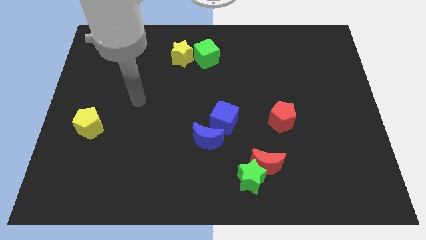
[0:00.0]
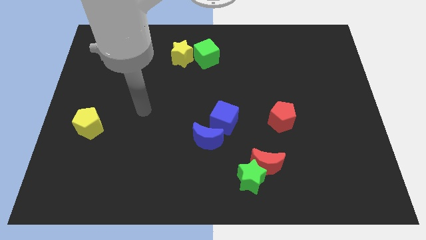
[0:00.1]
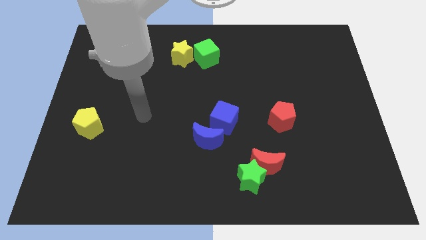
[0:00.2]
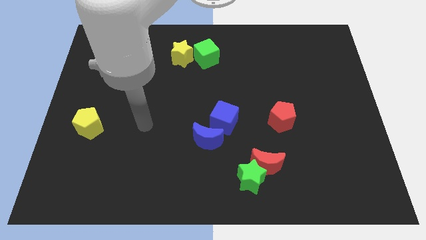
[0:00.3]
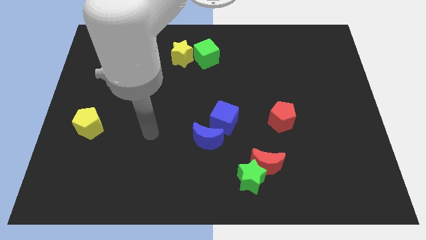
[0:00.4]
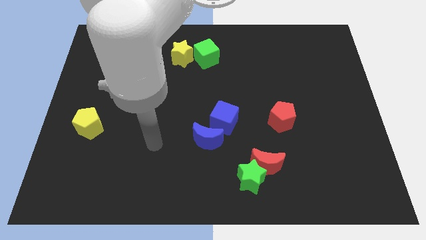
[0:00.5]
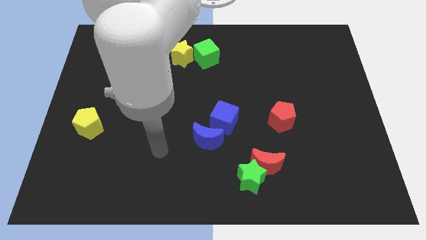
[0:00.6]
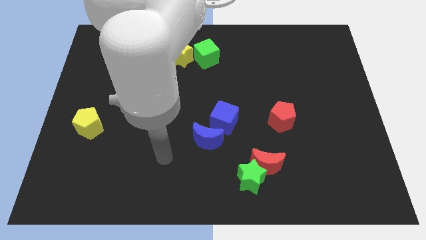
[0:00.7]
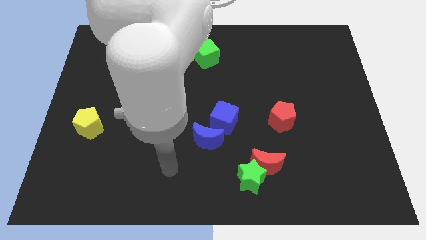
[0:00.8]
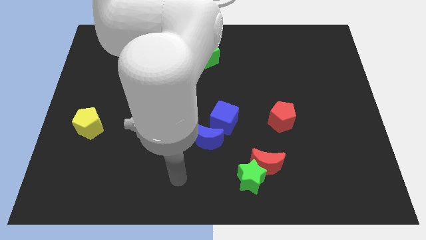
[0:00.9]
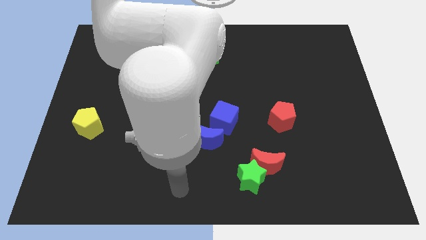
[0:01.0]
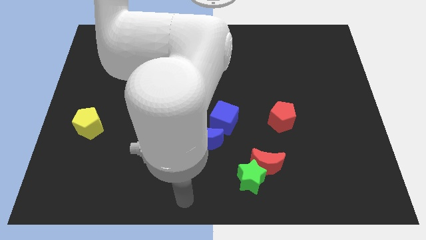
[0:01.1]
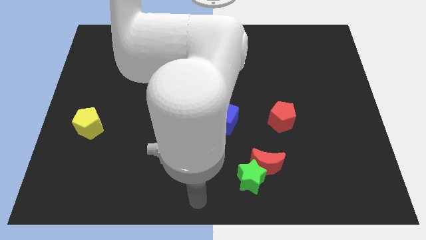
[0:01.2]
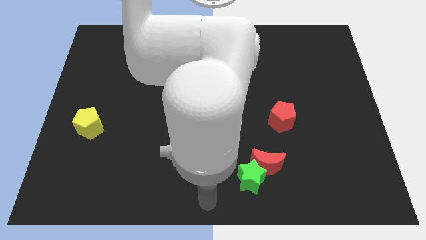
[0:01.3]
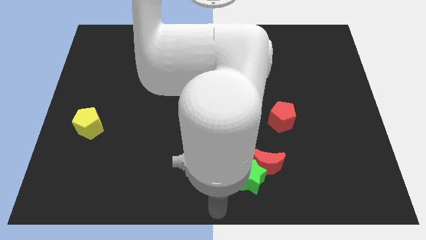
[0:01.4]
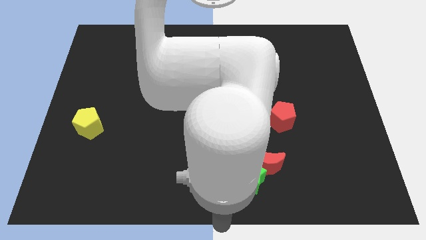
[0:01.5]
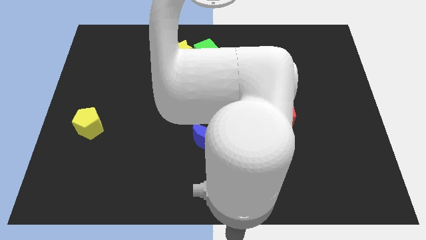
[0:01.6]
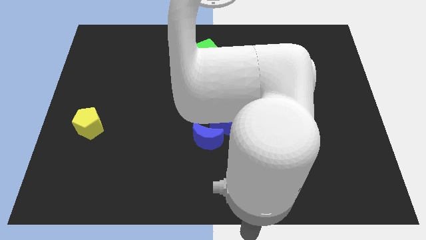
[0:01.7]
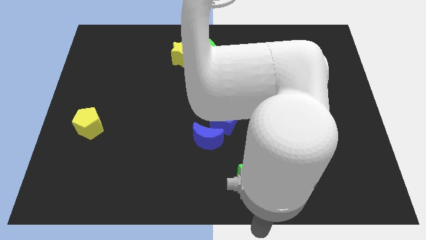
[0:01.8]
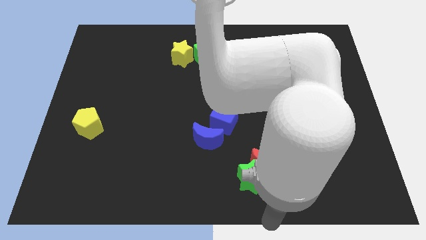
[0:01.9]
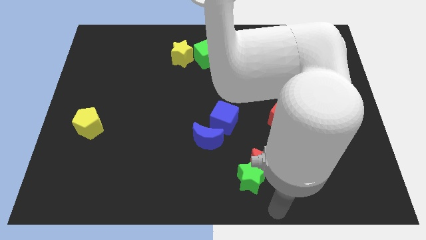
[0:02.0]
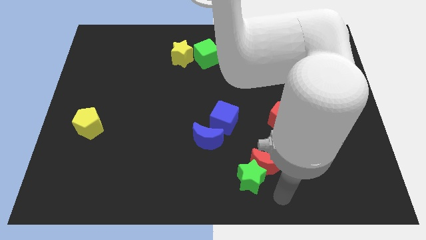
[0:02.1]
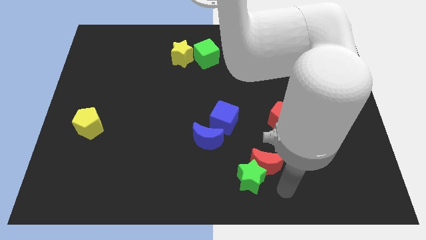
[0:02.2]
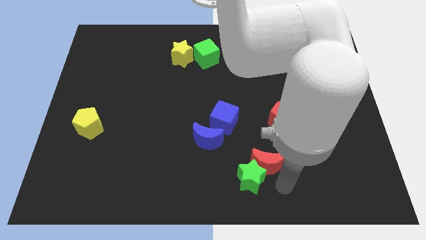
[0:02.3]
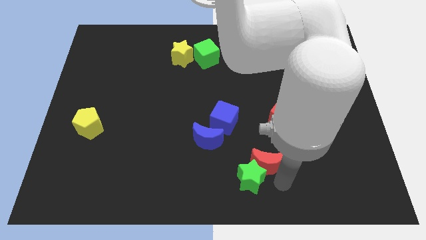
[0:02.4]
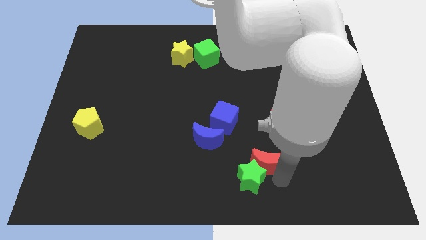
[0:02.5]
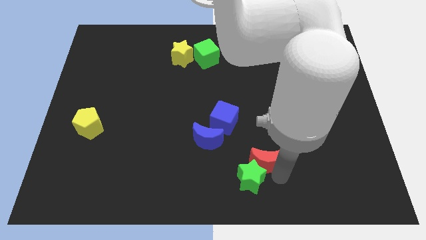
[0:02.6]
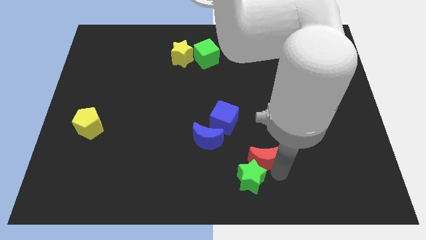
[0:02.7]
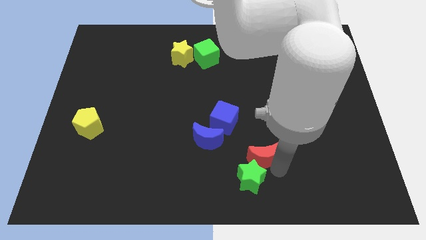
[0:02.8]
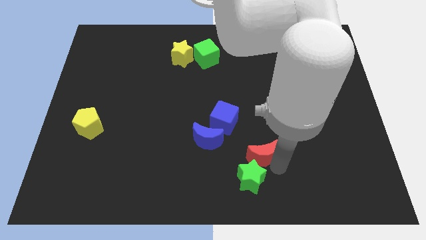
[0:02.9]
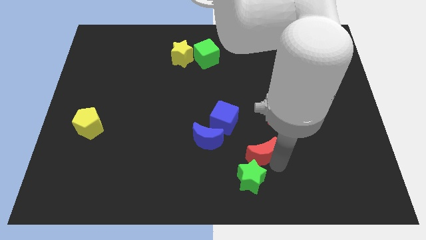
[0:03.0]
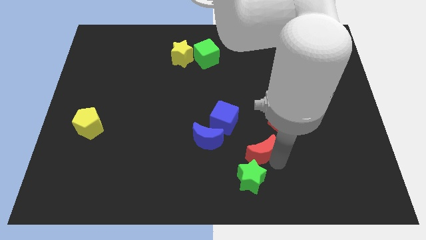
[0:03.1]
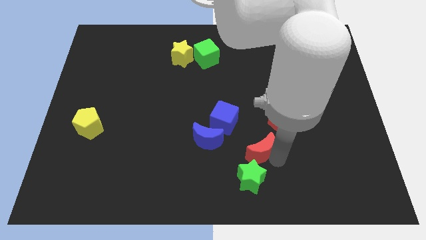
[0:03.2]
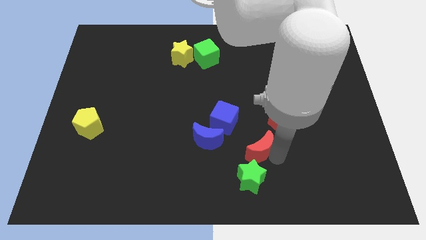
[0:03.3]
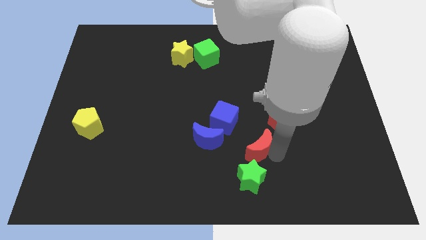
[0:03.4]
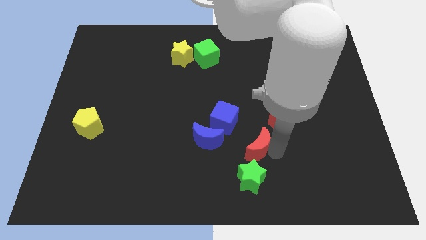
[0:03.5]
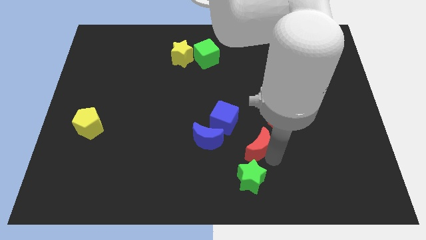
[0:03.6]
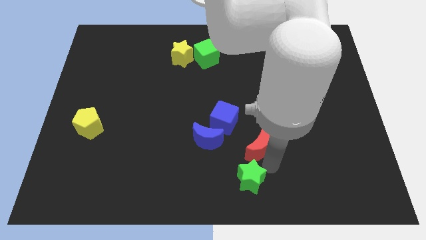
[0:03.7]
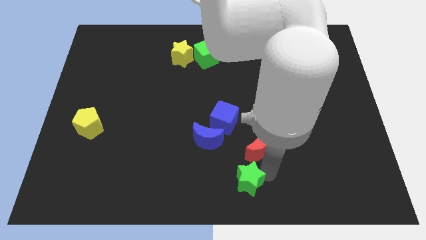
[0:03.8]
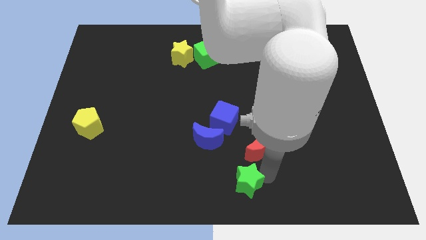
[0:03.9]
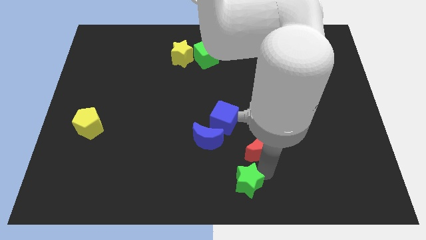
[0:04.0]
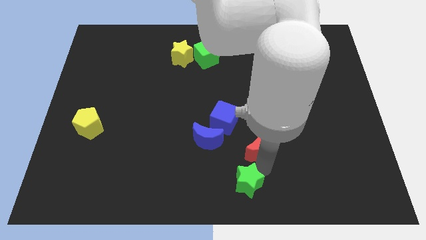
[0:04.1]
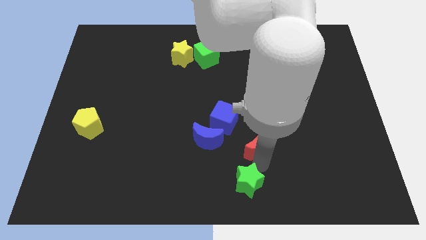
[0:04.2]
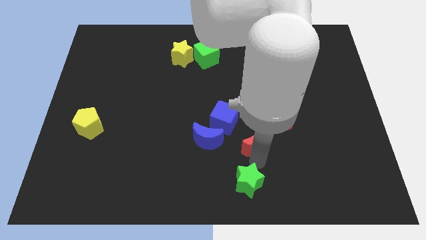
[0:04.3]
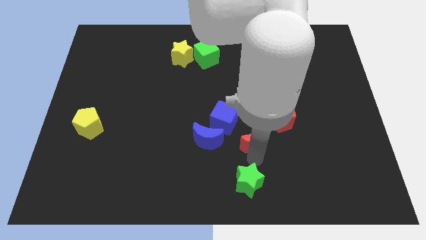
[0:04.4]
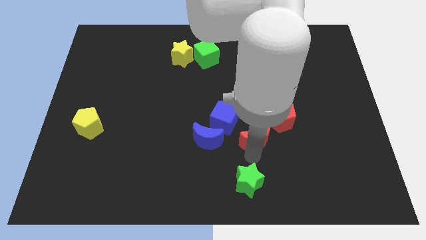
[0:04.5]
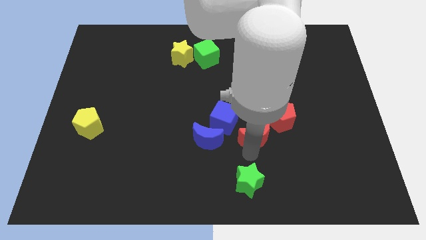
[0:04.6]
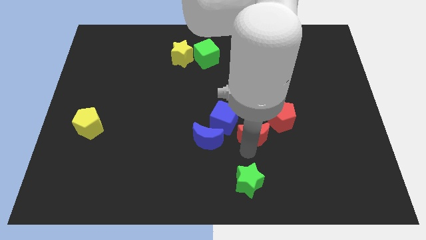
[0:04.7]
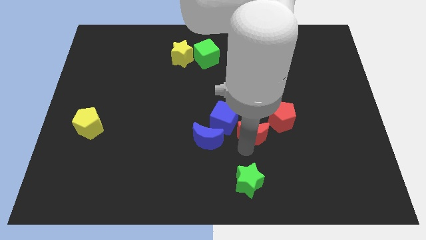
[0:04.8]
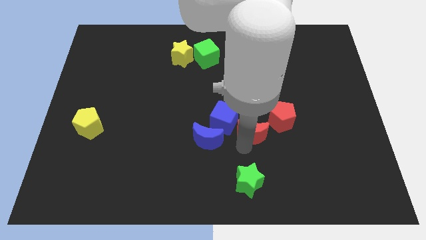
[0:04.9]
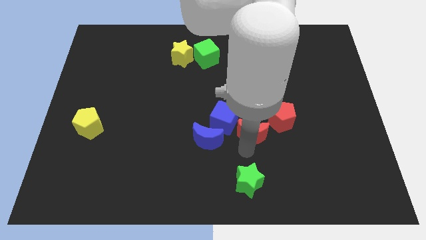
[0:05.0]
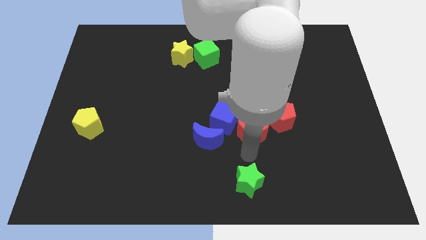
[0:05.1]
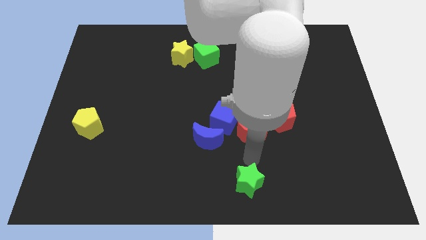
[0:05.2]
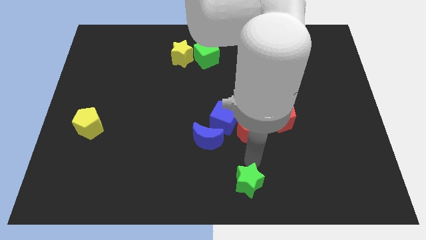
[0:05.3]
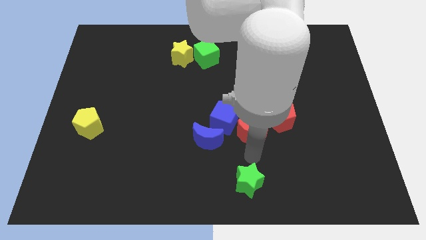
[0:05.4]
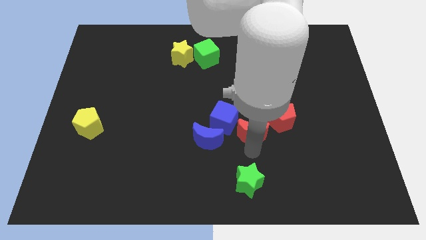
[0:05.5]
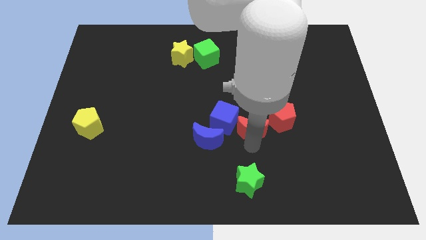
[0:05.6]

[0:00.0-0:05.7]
push the red moon to the center

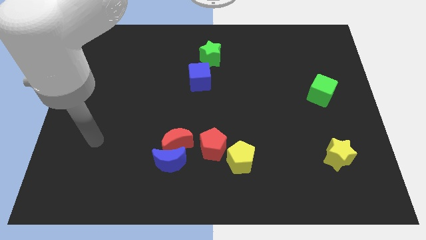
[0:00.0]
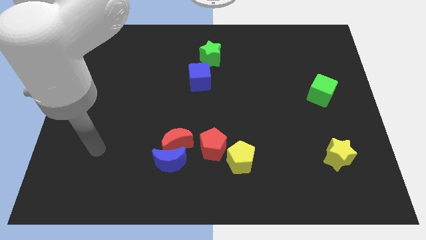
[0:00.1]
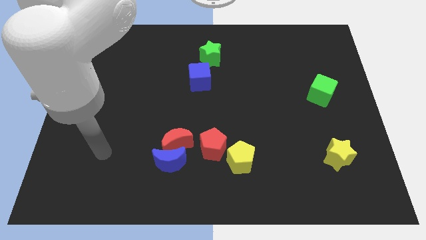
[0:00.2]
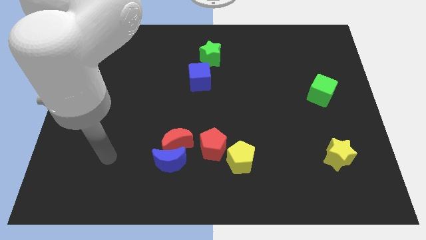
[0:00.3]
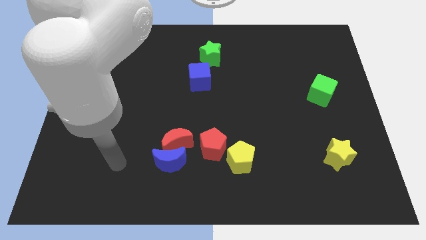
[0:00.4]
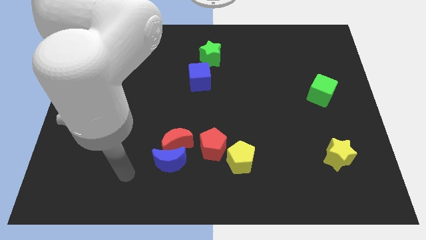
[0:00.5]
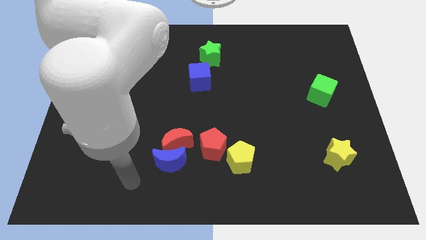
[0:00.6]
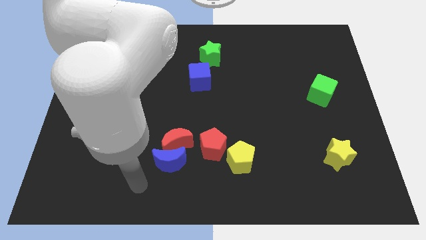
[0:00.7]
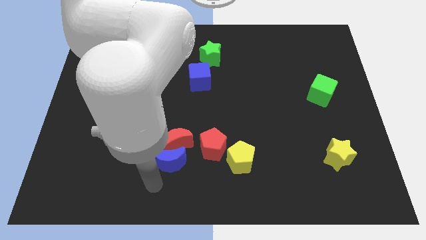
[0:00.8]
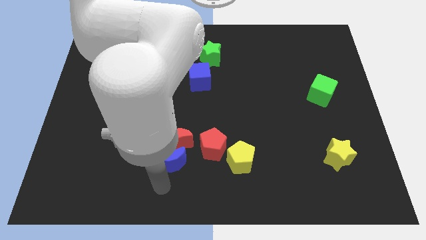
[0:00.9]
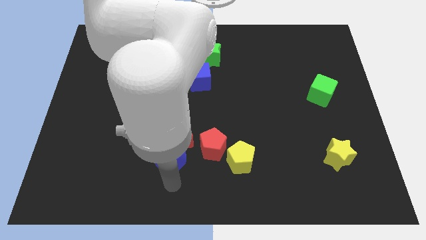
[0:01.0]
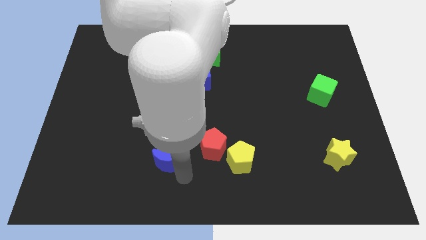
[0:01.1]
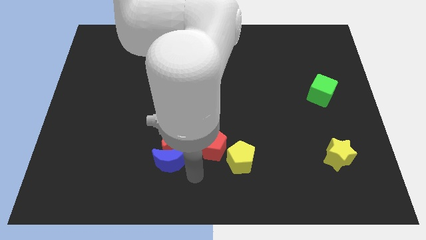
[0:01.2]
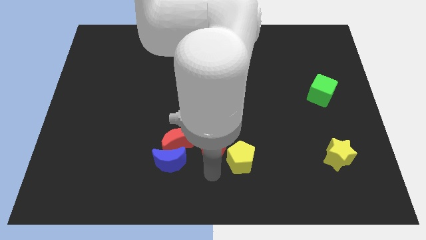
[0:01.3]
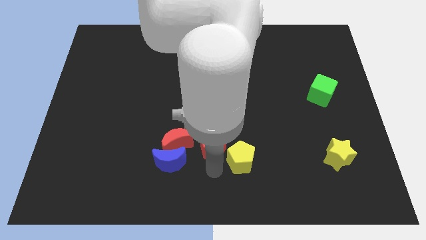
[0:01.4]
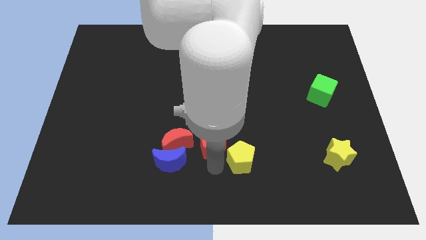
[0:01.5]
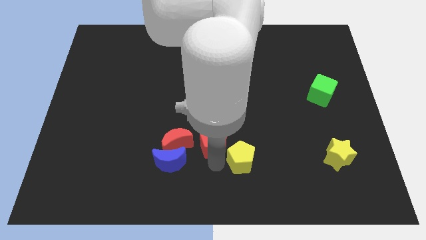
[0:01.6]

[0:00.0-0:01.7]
move the red pentagon to the middle

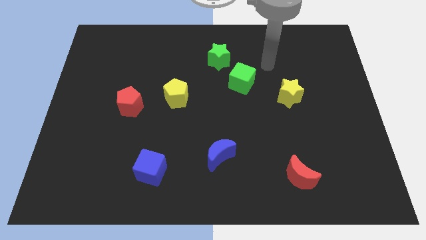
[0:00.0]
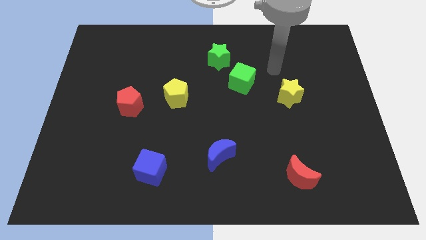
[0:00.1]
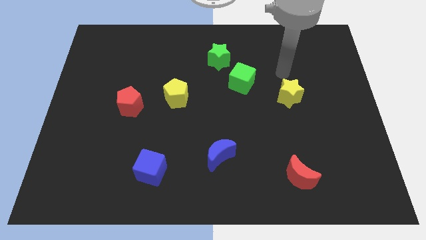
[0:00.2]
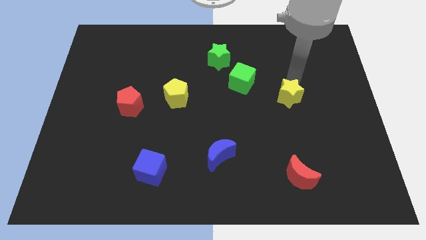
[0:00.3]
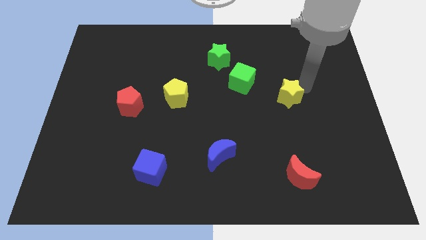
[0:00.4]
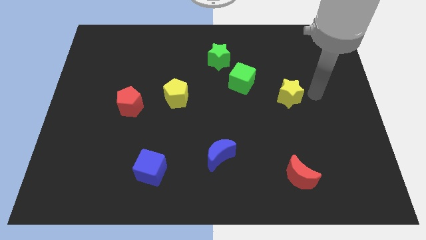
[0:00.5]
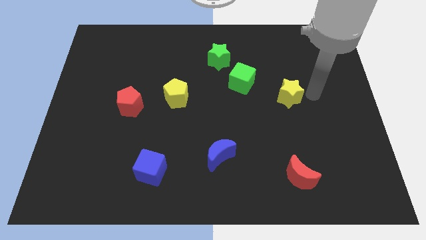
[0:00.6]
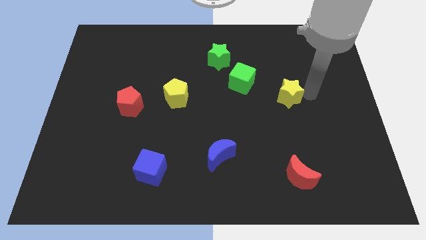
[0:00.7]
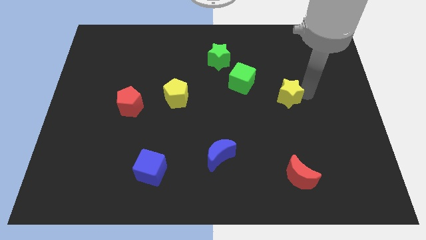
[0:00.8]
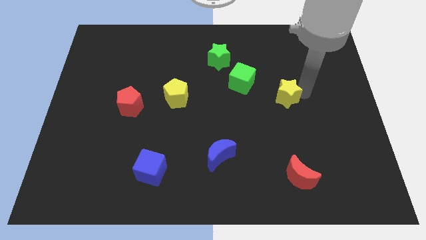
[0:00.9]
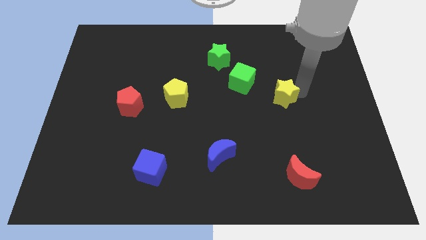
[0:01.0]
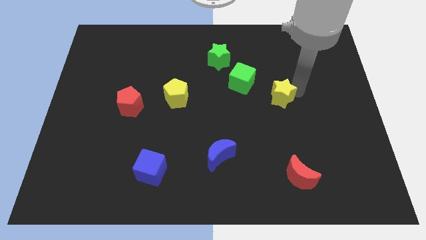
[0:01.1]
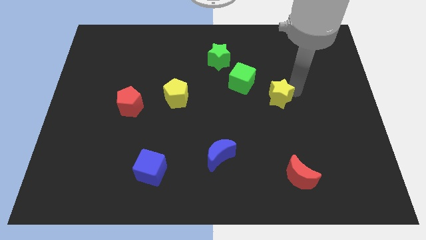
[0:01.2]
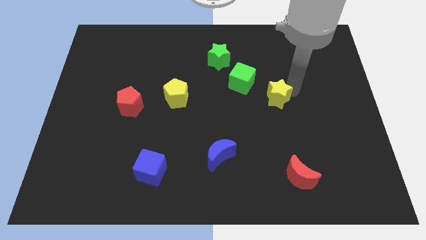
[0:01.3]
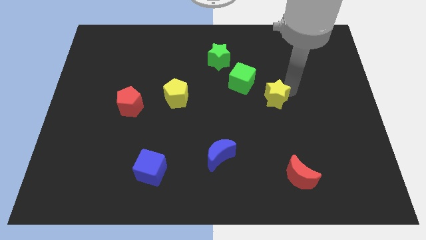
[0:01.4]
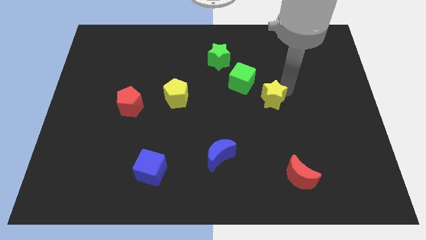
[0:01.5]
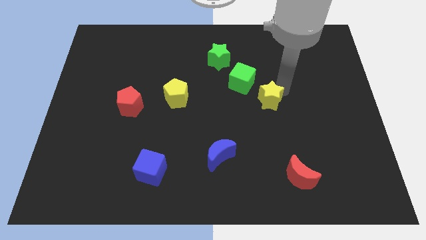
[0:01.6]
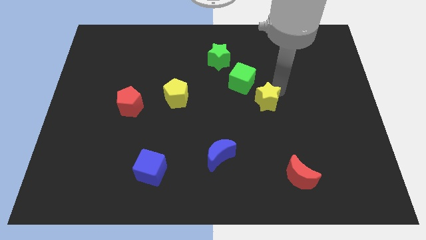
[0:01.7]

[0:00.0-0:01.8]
slide the yellow star to the middle of the board
